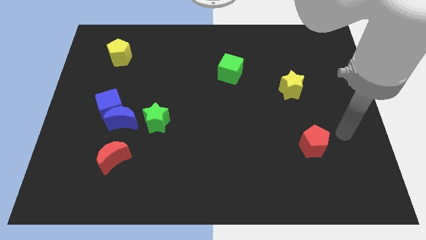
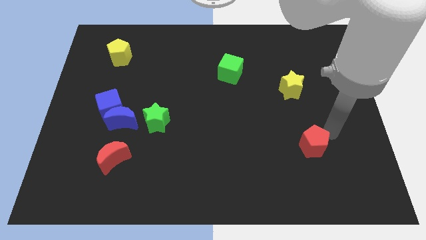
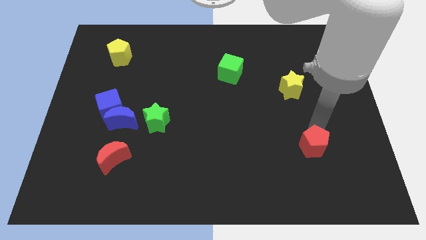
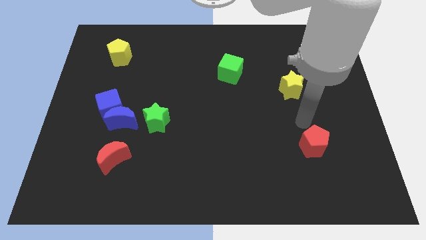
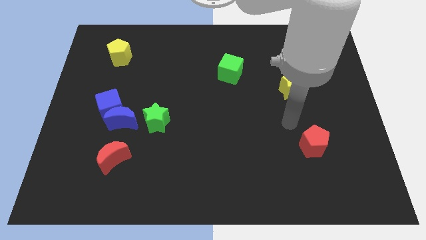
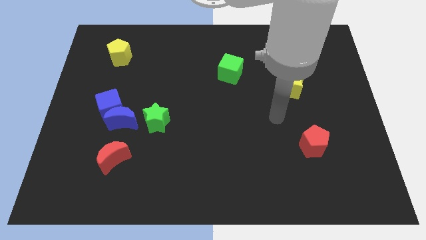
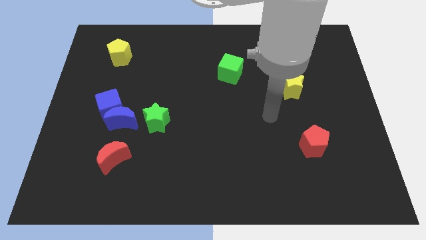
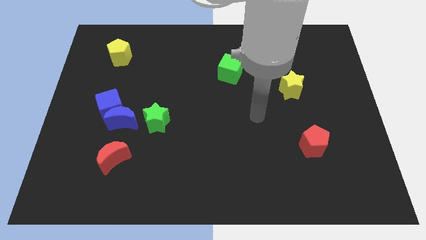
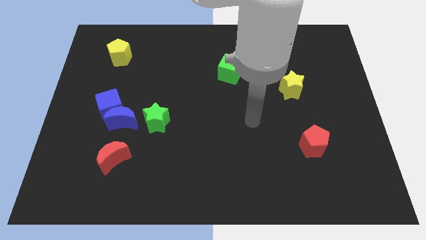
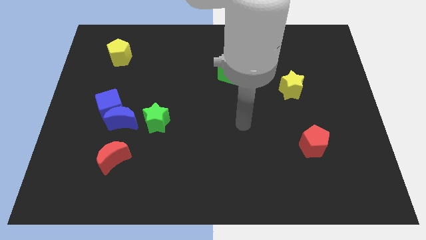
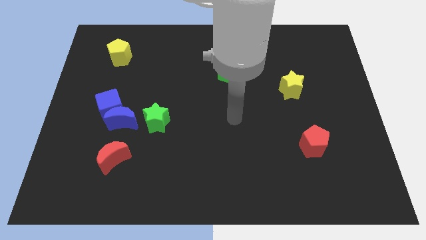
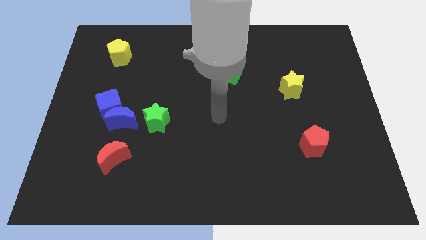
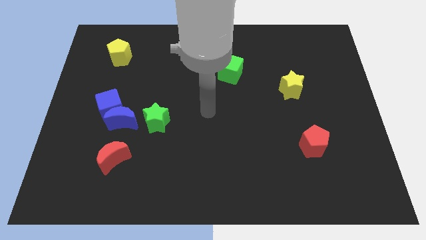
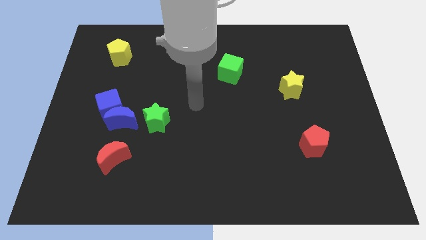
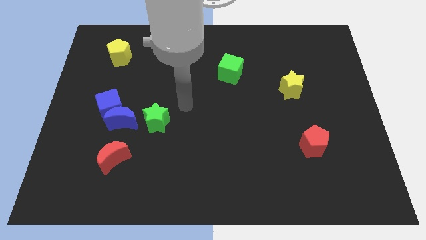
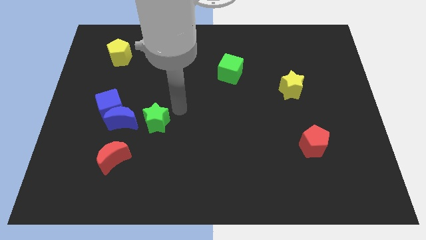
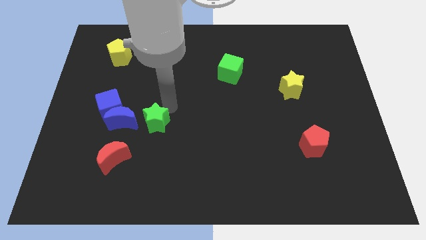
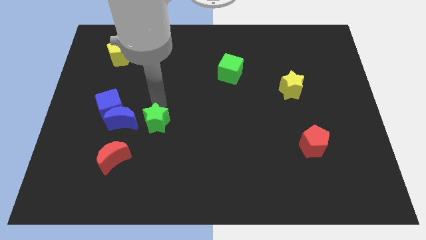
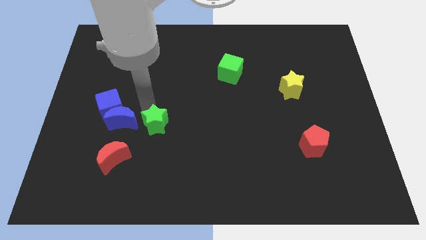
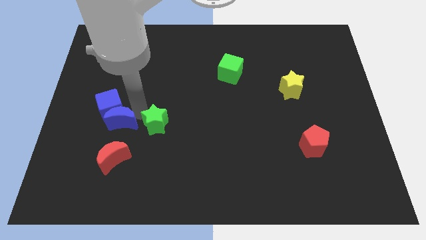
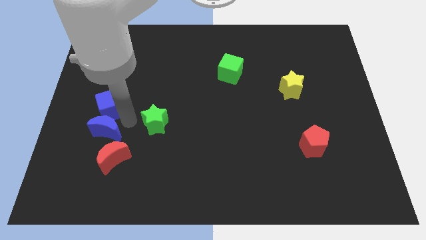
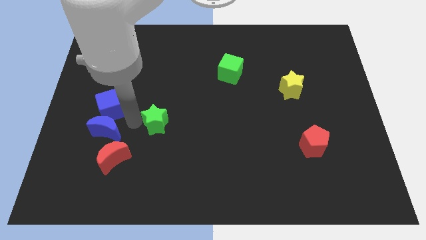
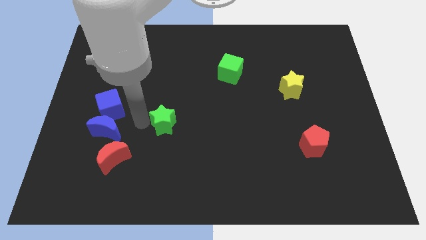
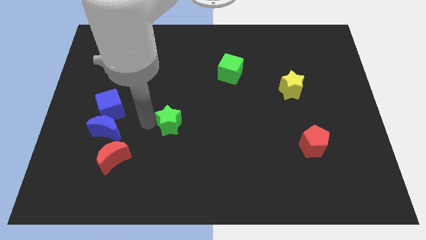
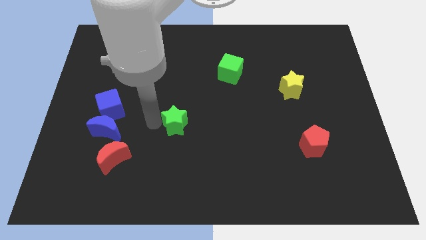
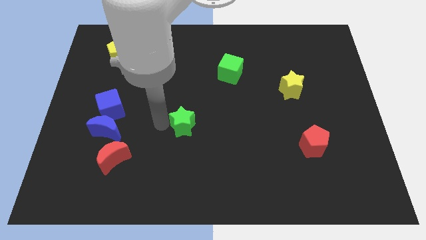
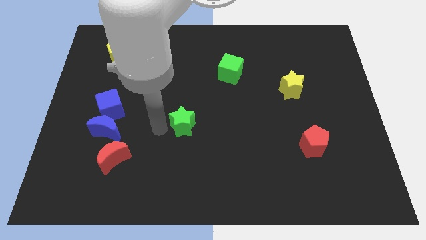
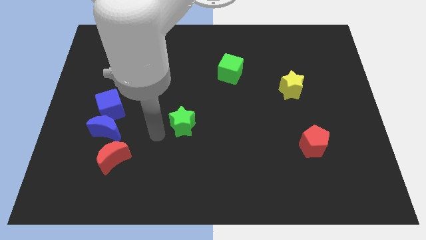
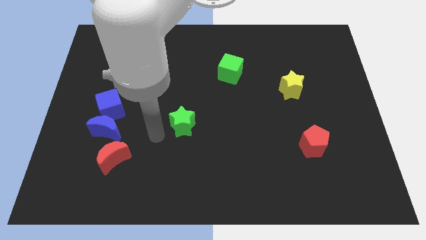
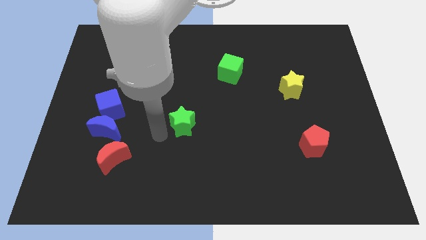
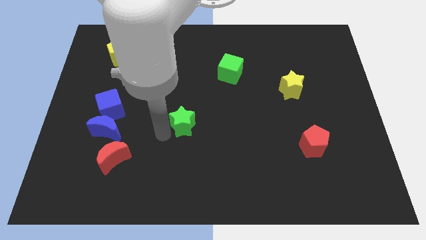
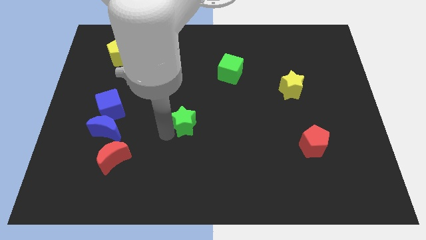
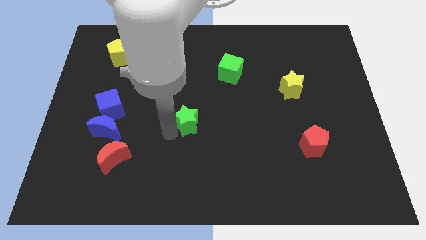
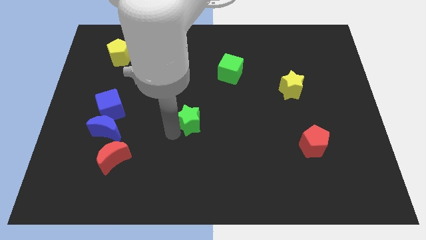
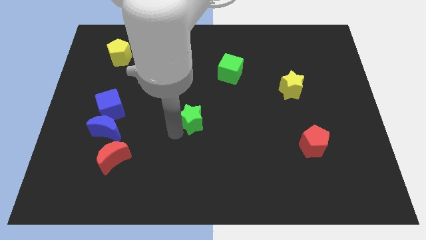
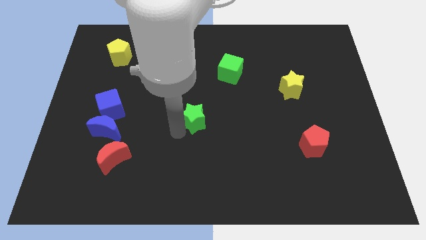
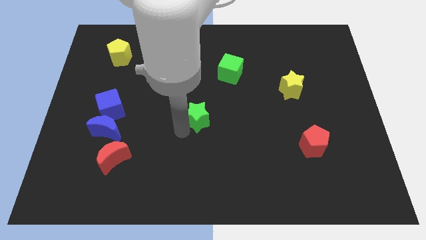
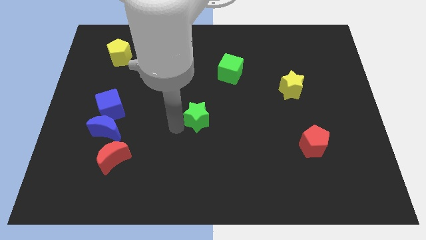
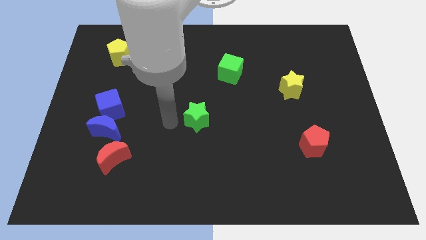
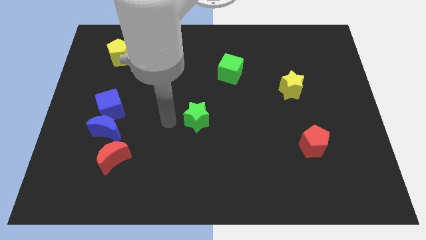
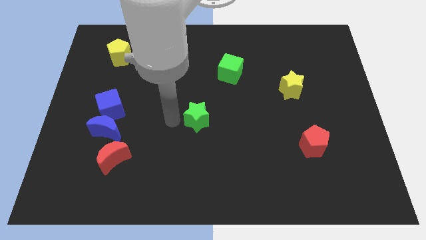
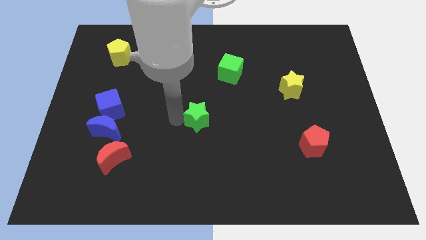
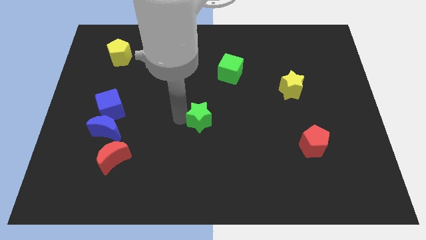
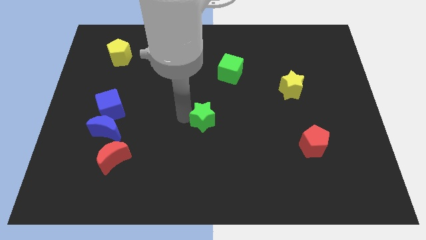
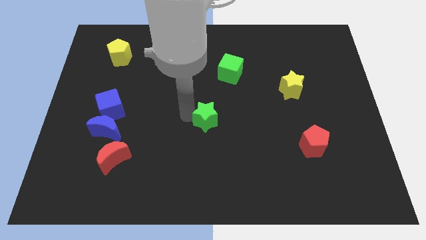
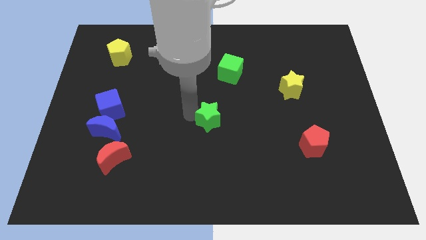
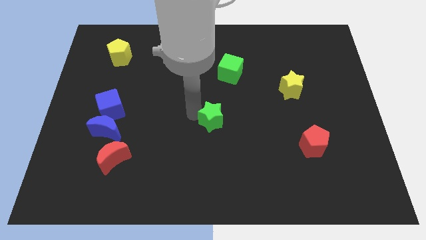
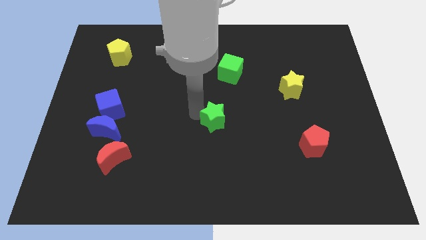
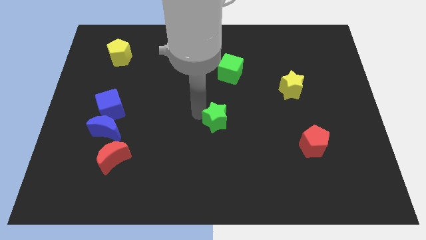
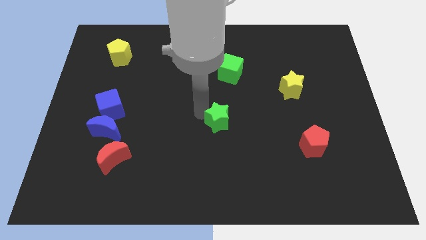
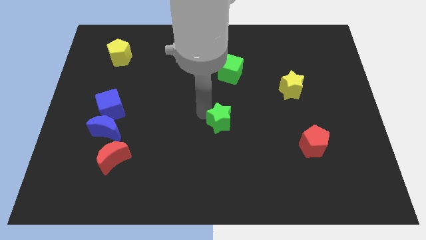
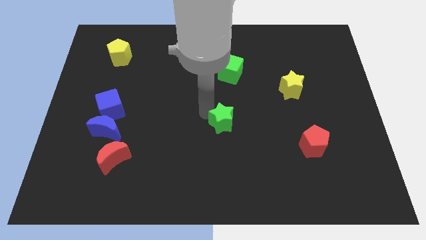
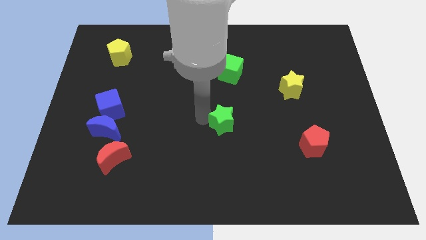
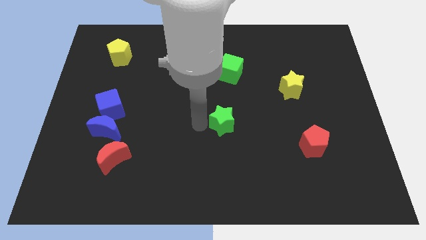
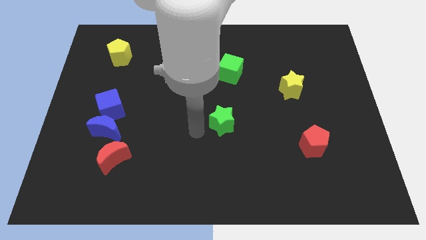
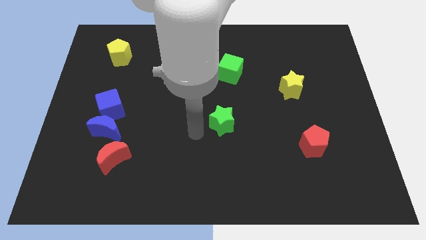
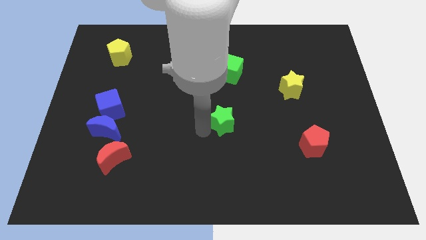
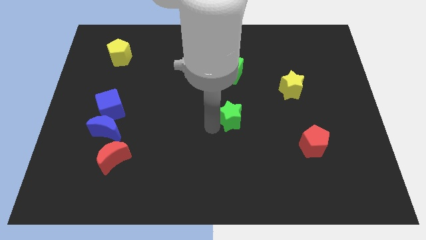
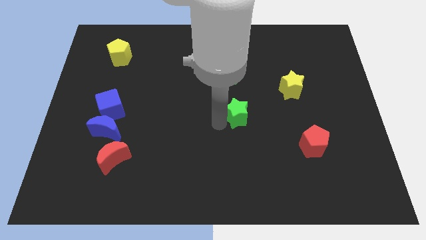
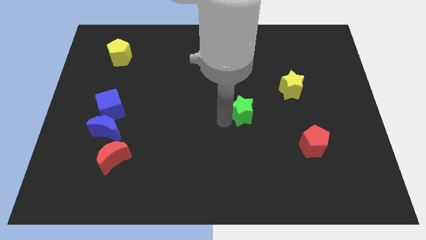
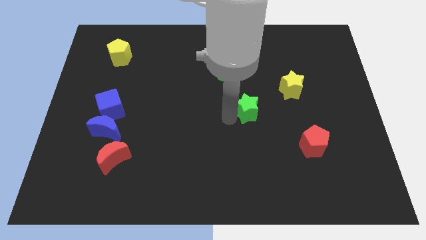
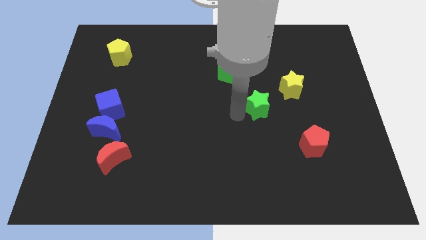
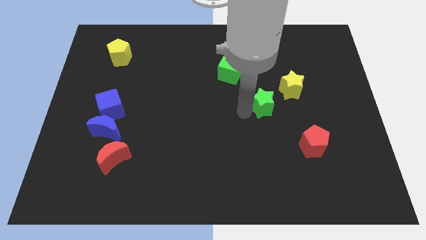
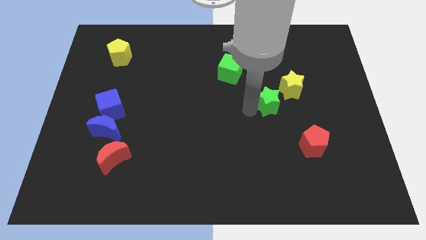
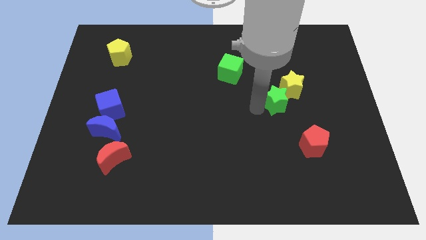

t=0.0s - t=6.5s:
push the green star to the yellow star
